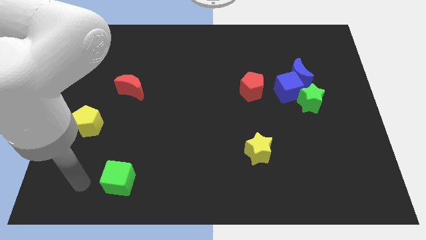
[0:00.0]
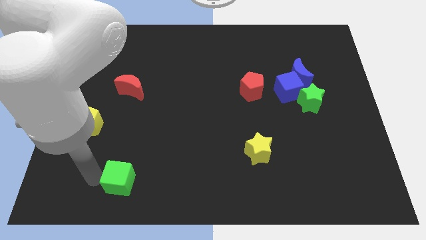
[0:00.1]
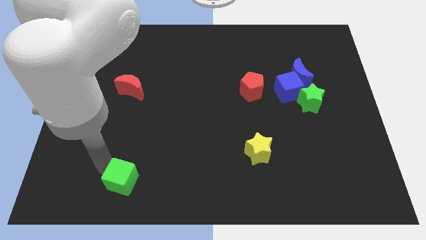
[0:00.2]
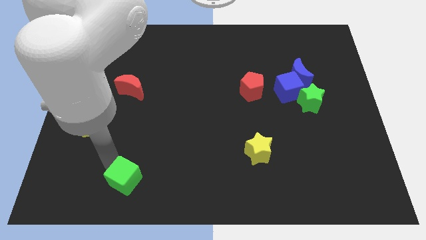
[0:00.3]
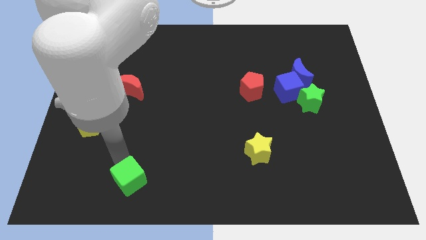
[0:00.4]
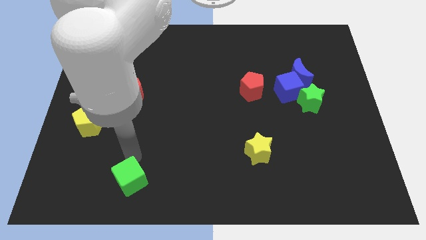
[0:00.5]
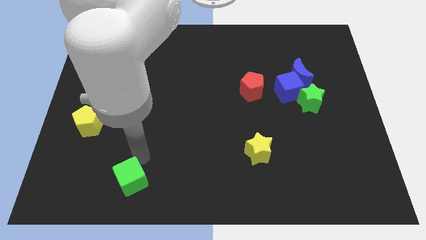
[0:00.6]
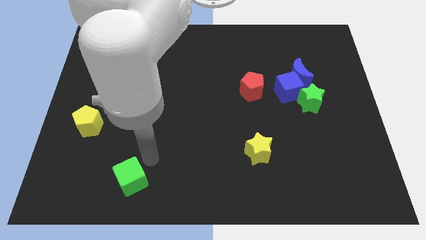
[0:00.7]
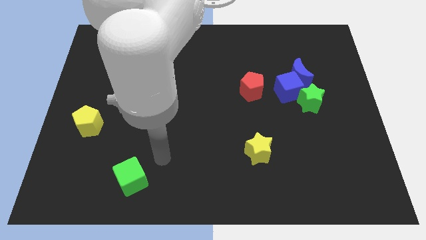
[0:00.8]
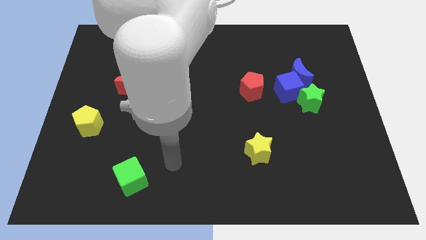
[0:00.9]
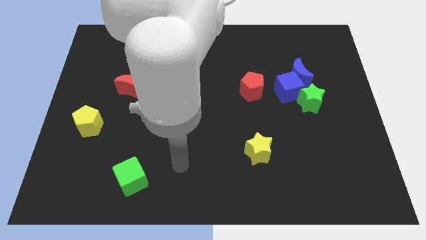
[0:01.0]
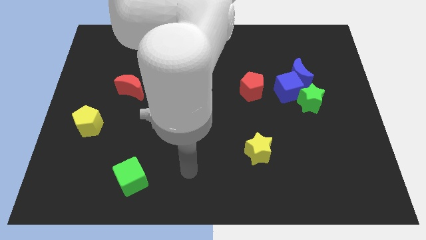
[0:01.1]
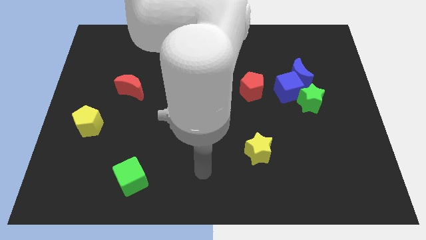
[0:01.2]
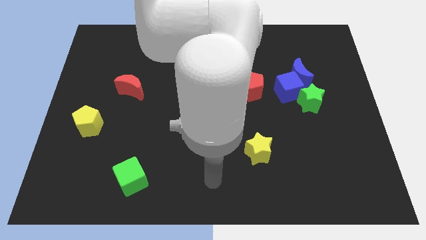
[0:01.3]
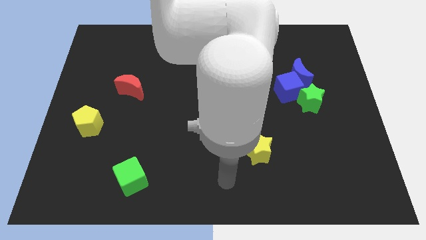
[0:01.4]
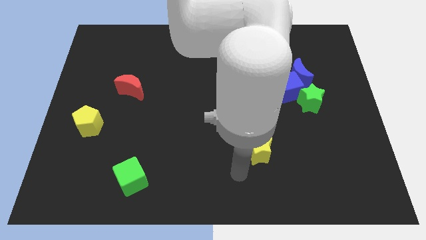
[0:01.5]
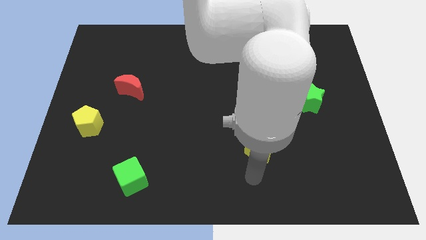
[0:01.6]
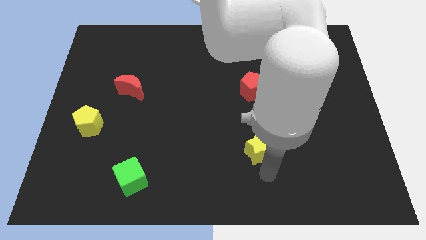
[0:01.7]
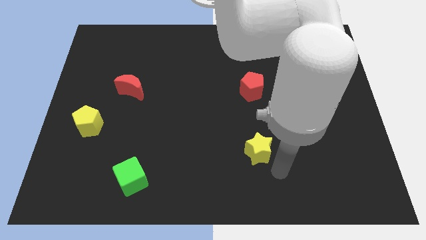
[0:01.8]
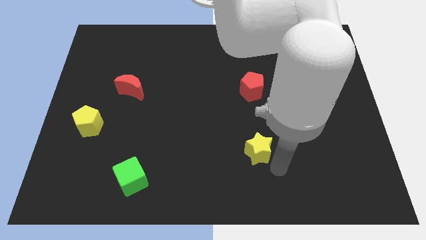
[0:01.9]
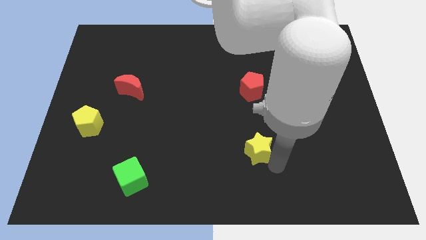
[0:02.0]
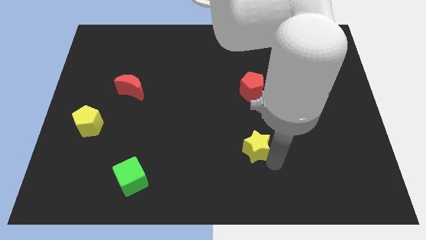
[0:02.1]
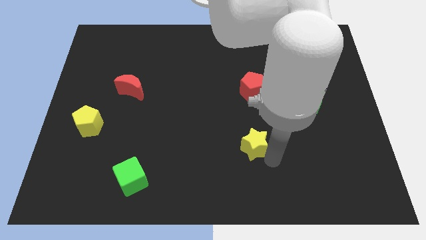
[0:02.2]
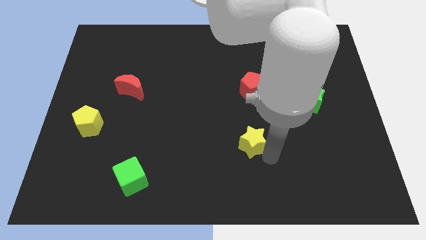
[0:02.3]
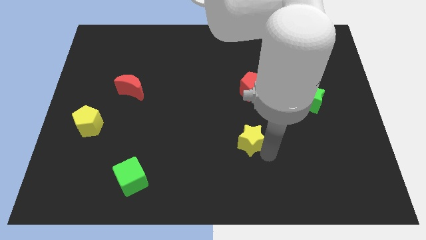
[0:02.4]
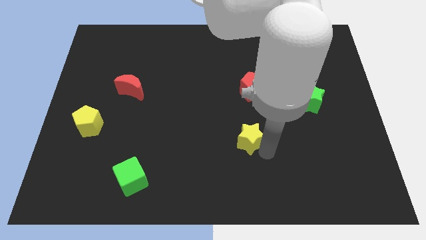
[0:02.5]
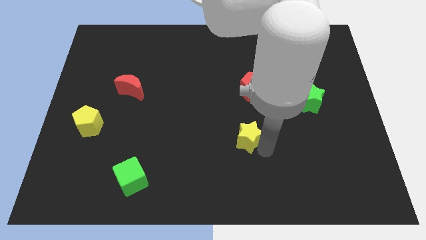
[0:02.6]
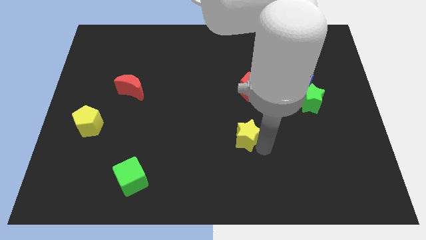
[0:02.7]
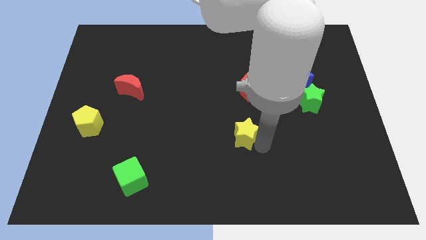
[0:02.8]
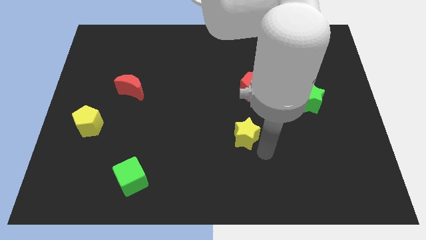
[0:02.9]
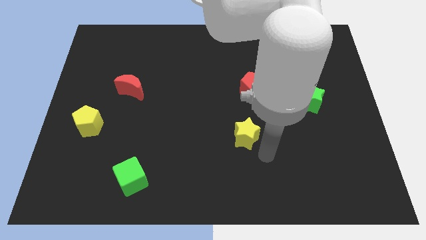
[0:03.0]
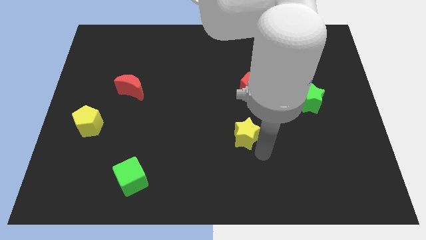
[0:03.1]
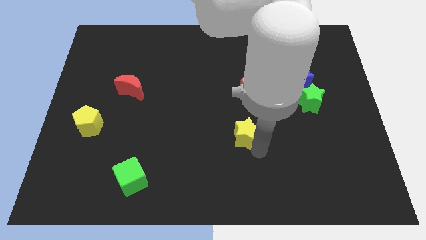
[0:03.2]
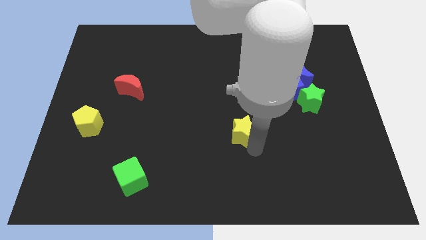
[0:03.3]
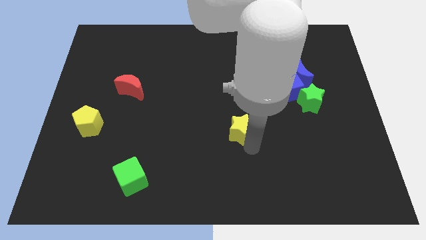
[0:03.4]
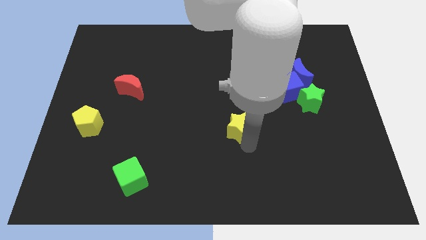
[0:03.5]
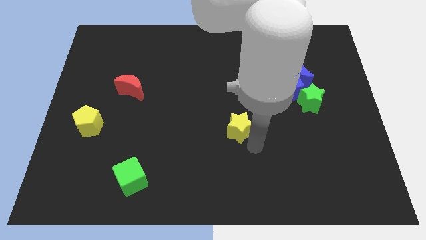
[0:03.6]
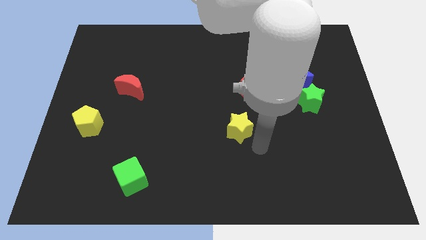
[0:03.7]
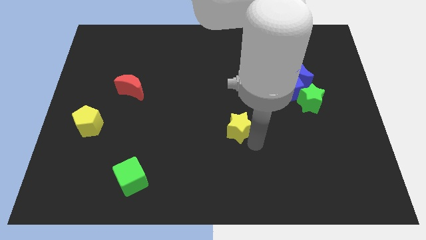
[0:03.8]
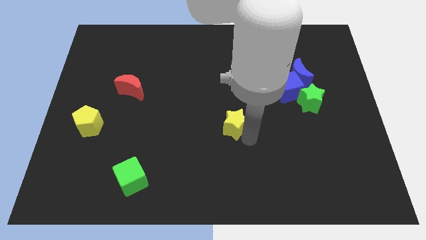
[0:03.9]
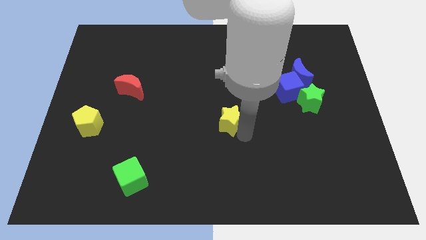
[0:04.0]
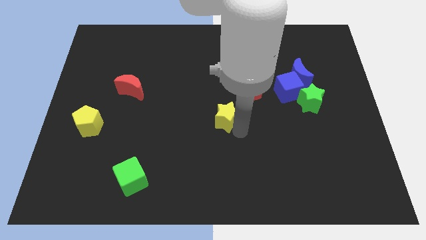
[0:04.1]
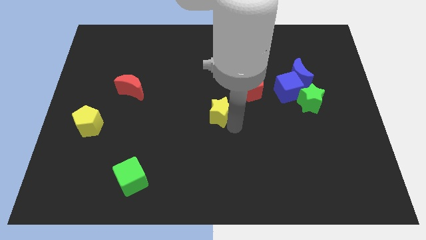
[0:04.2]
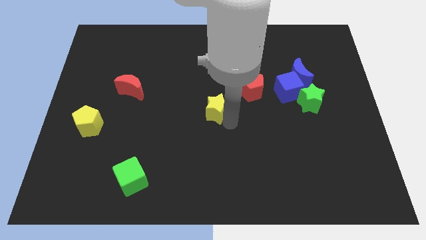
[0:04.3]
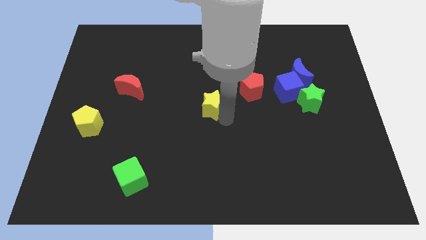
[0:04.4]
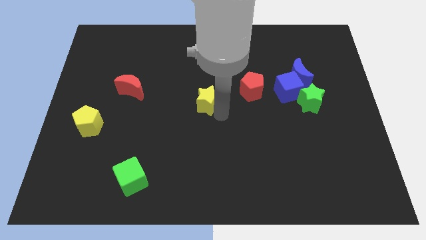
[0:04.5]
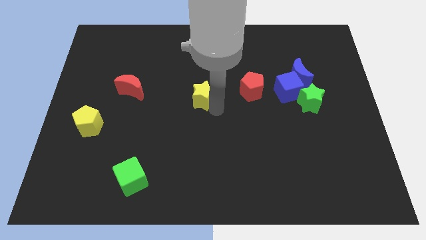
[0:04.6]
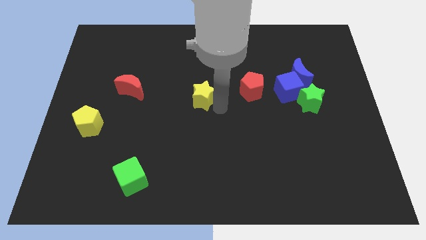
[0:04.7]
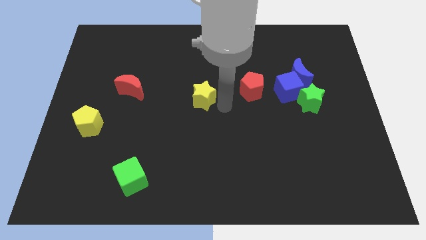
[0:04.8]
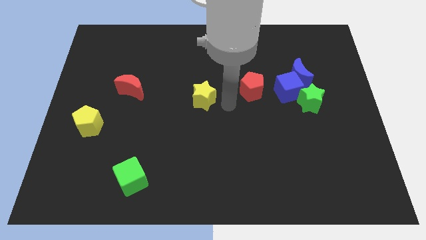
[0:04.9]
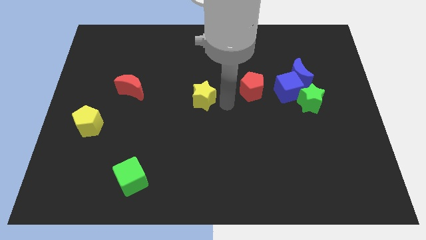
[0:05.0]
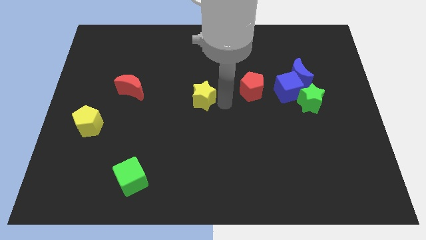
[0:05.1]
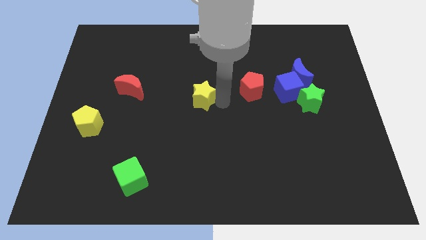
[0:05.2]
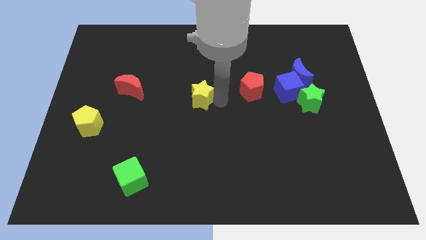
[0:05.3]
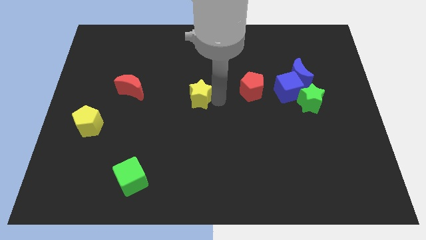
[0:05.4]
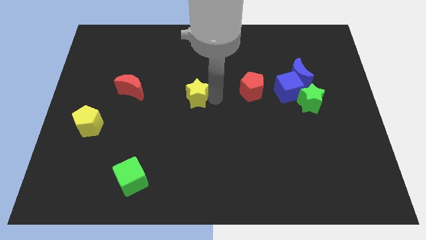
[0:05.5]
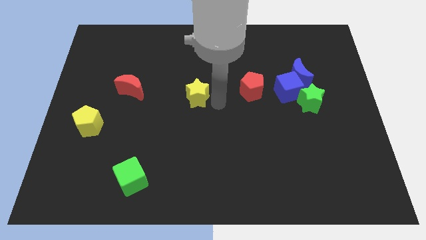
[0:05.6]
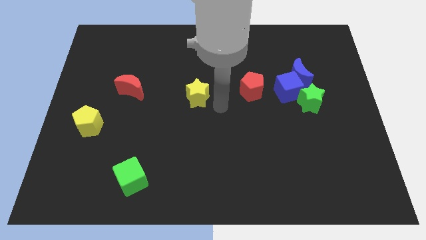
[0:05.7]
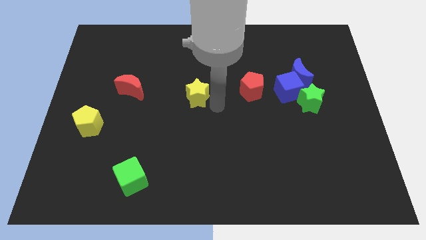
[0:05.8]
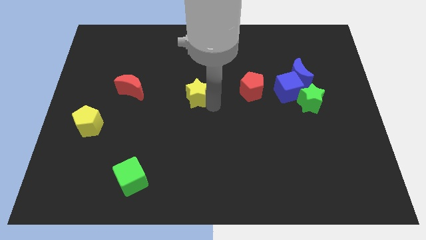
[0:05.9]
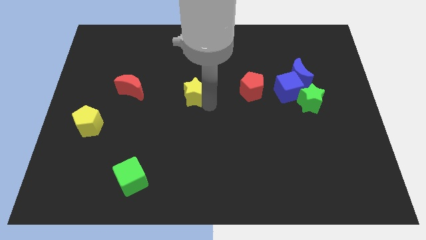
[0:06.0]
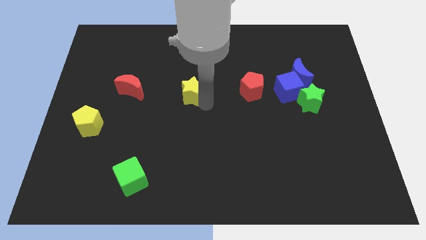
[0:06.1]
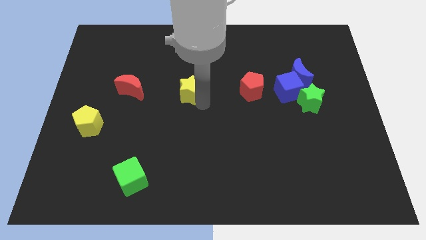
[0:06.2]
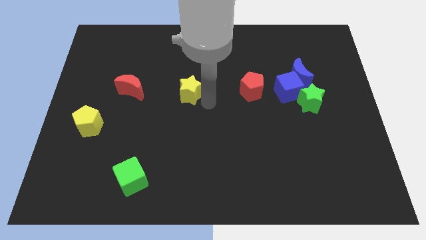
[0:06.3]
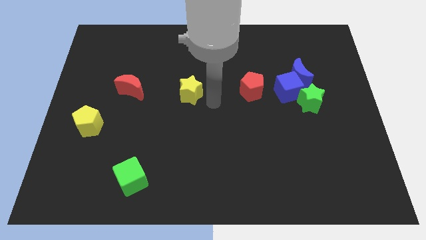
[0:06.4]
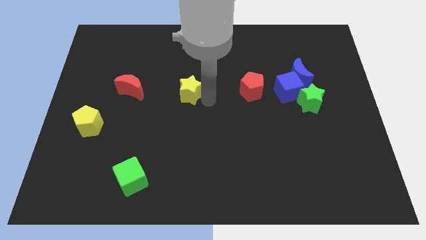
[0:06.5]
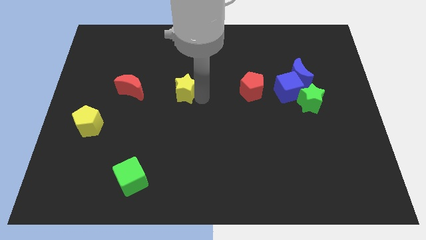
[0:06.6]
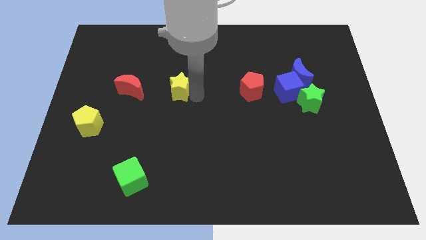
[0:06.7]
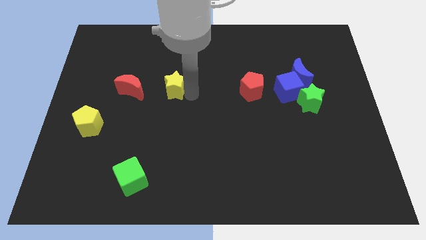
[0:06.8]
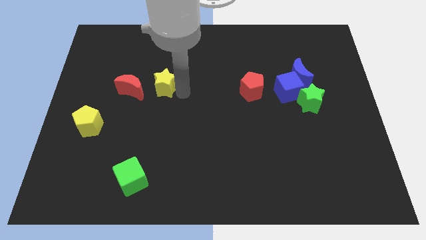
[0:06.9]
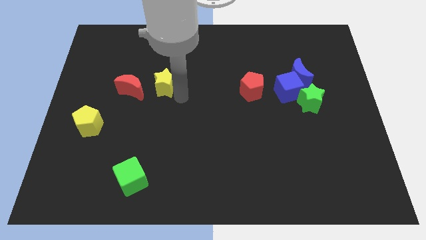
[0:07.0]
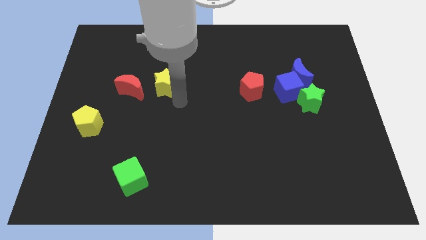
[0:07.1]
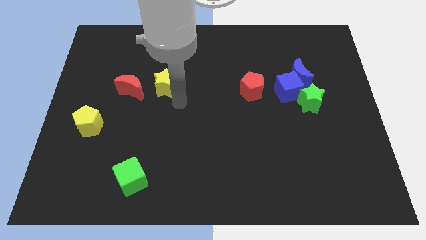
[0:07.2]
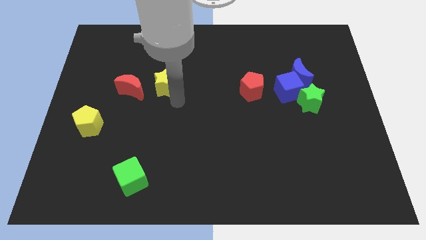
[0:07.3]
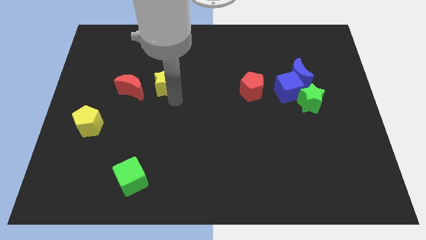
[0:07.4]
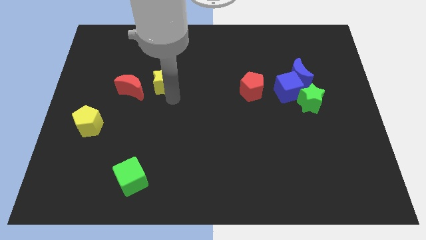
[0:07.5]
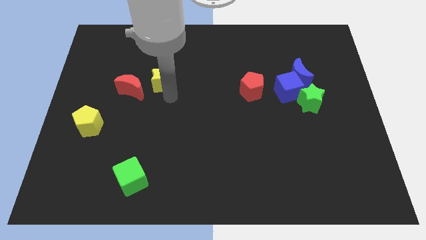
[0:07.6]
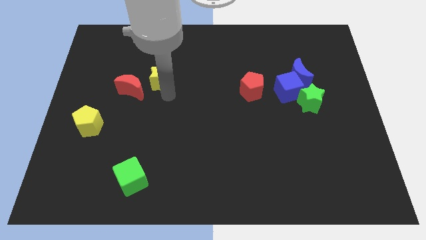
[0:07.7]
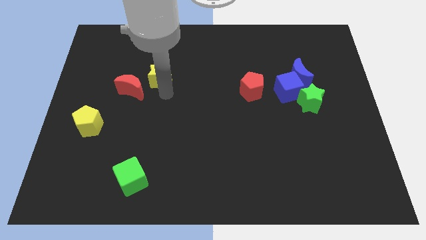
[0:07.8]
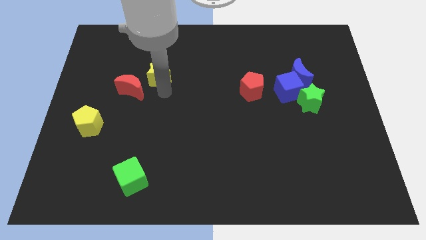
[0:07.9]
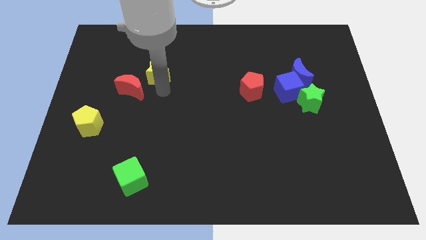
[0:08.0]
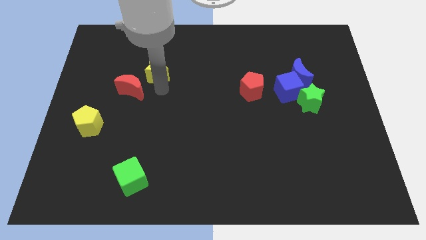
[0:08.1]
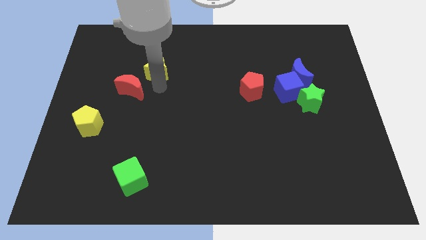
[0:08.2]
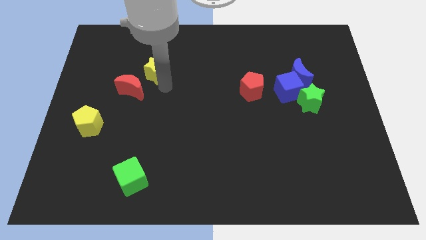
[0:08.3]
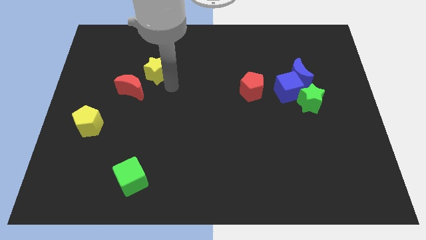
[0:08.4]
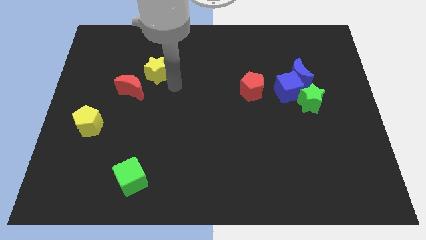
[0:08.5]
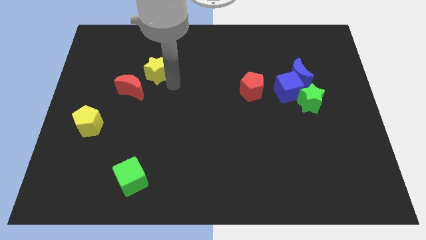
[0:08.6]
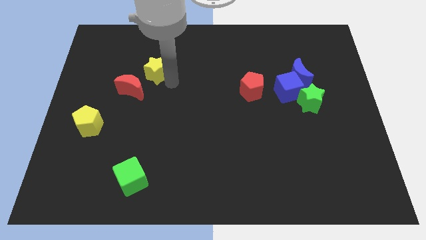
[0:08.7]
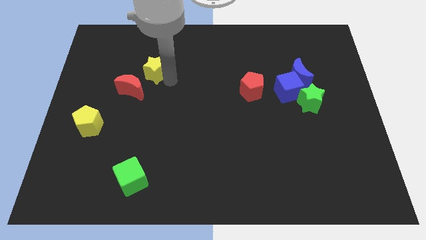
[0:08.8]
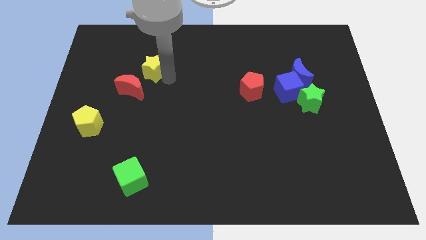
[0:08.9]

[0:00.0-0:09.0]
push the yellow star above the red moon
